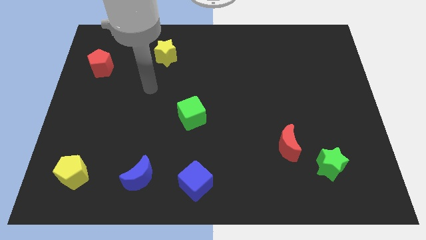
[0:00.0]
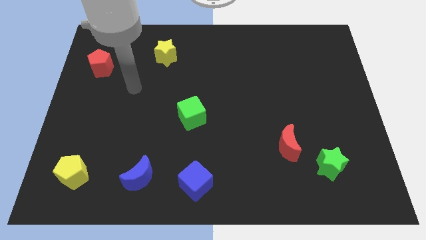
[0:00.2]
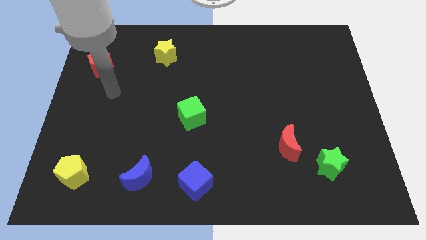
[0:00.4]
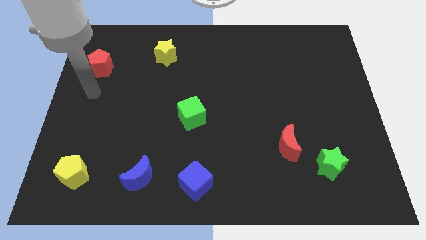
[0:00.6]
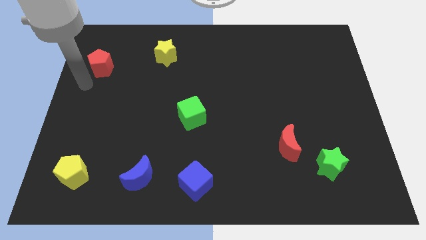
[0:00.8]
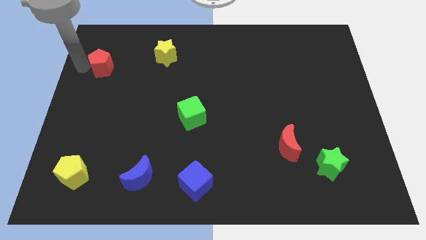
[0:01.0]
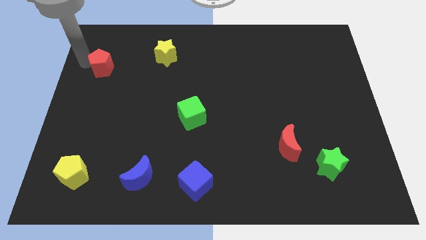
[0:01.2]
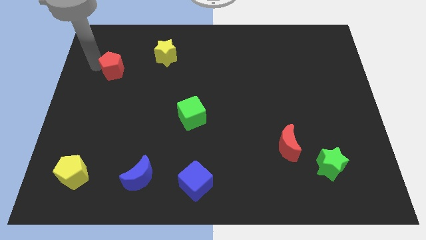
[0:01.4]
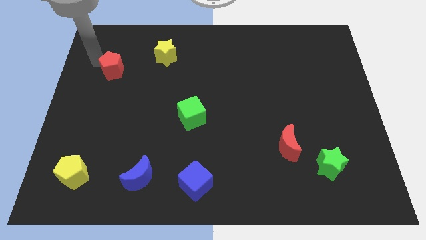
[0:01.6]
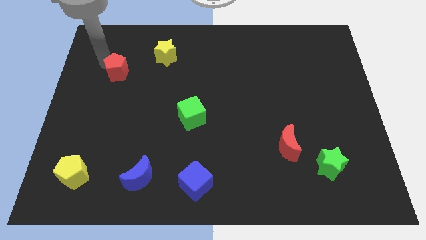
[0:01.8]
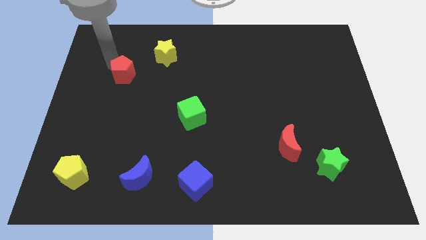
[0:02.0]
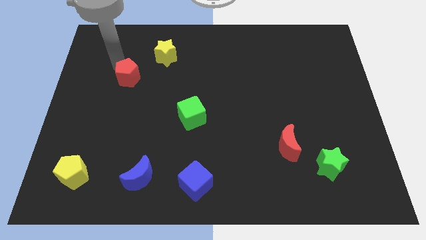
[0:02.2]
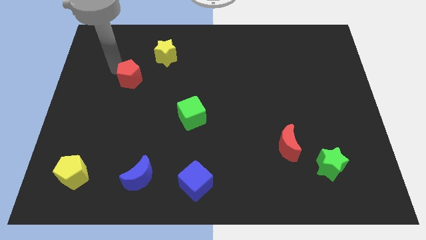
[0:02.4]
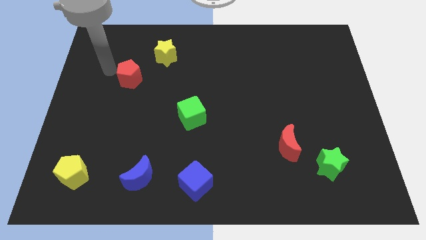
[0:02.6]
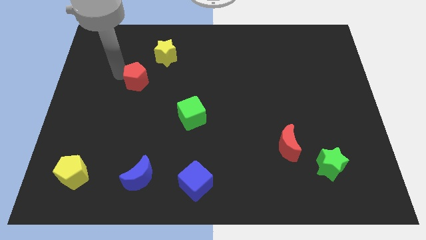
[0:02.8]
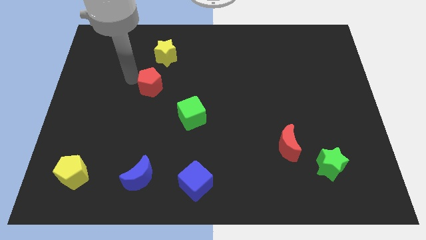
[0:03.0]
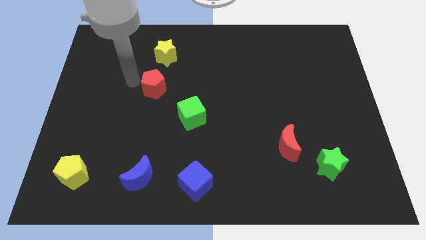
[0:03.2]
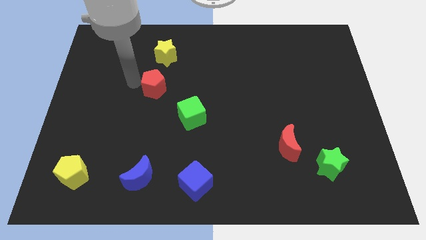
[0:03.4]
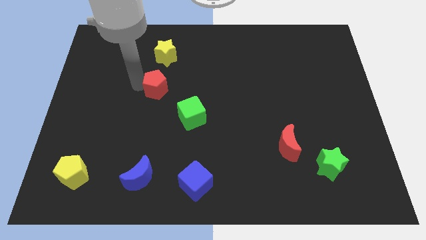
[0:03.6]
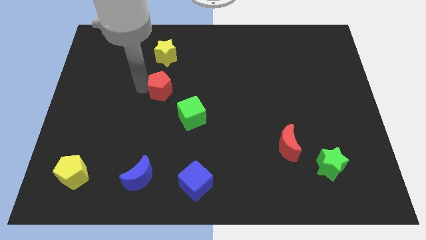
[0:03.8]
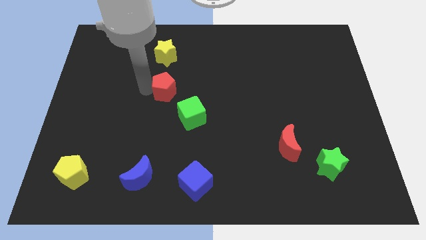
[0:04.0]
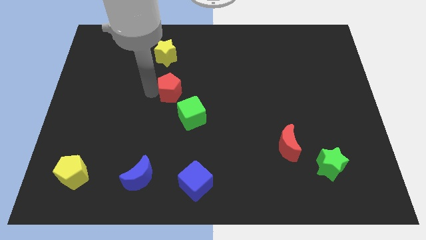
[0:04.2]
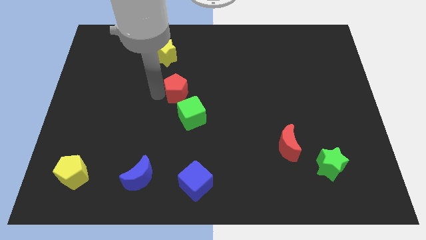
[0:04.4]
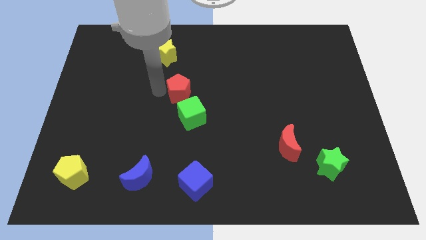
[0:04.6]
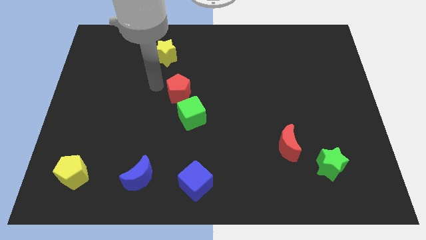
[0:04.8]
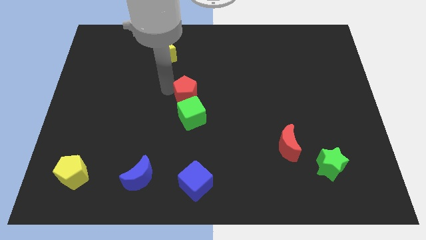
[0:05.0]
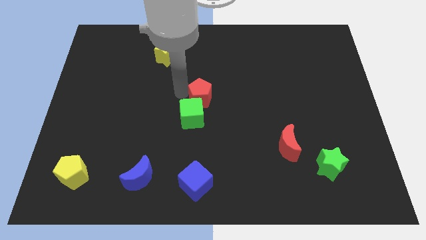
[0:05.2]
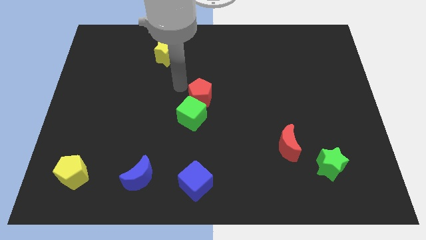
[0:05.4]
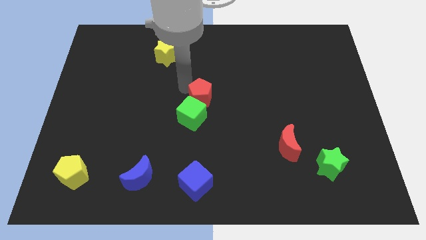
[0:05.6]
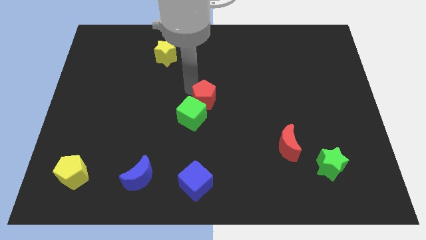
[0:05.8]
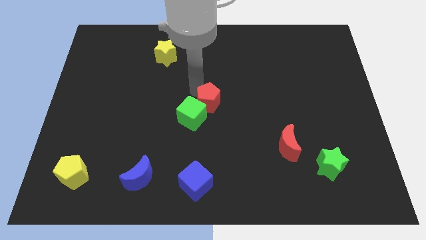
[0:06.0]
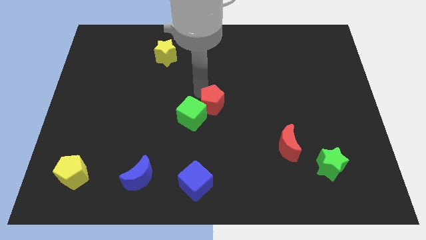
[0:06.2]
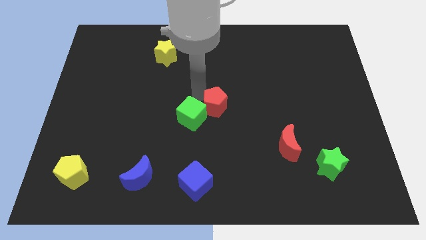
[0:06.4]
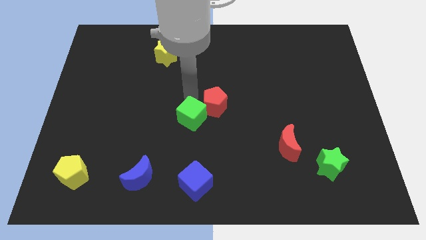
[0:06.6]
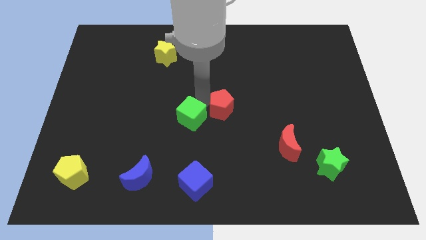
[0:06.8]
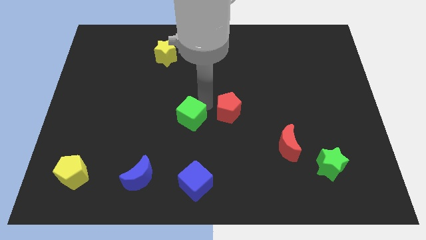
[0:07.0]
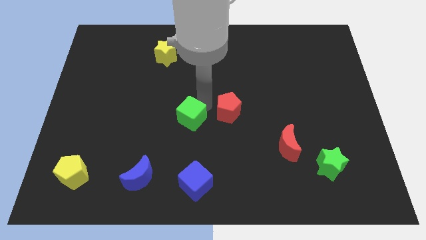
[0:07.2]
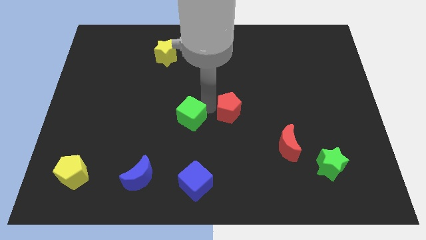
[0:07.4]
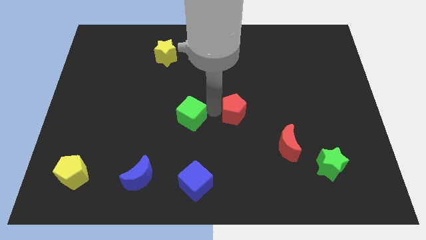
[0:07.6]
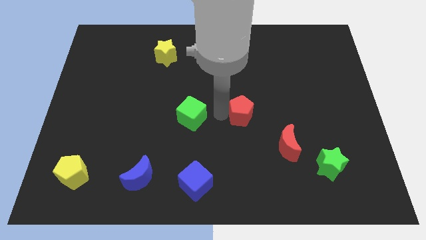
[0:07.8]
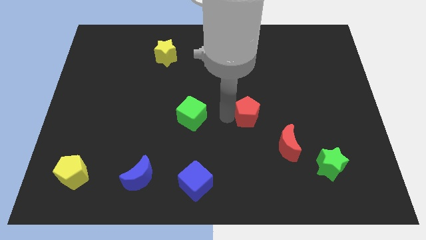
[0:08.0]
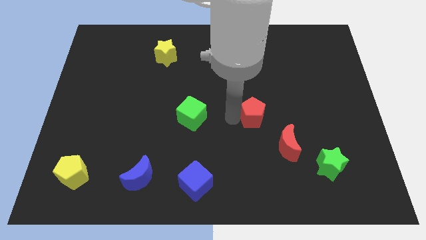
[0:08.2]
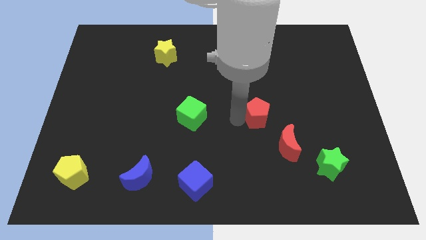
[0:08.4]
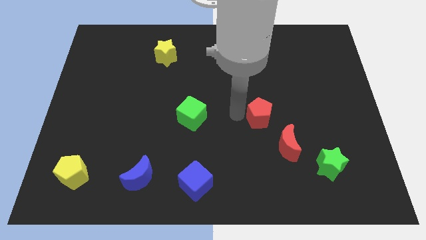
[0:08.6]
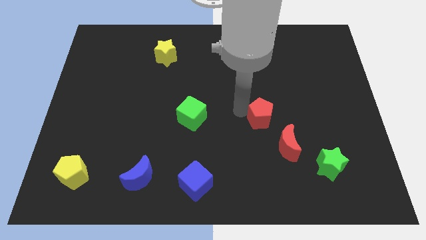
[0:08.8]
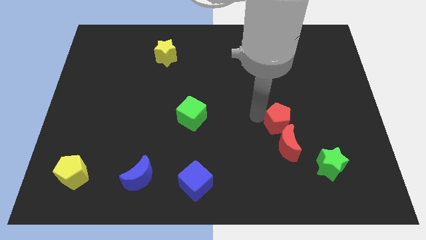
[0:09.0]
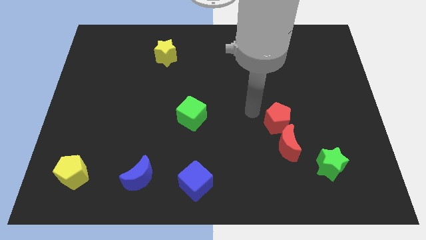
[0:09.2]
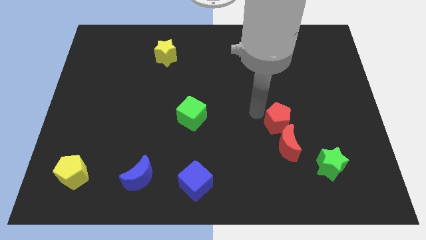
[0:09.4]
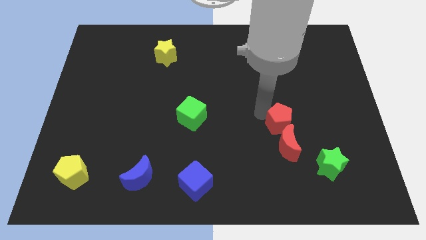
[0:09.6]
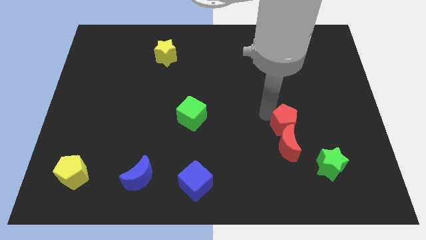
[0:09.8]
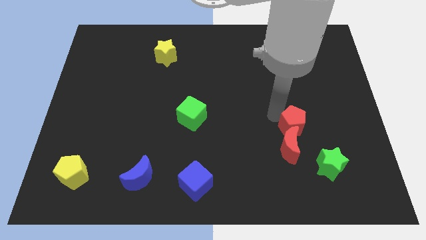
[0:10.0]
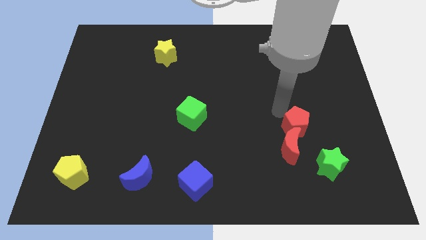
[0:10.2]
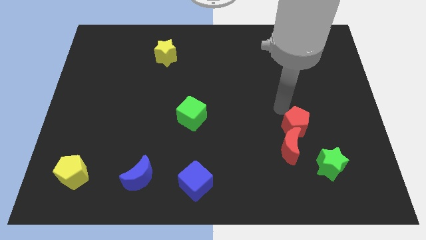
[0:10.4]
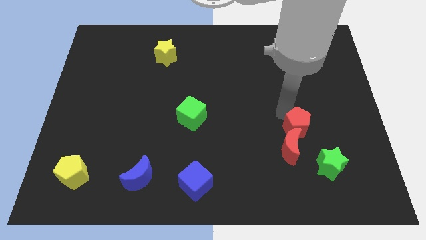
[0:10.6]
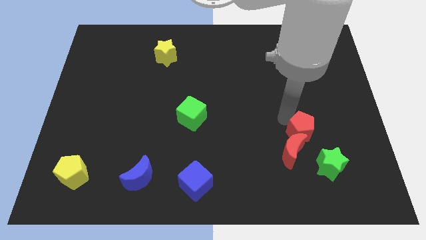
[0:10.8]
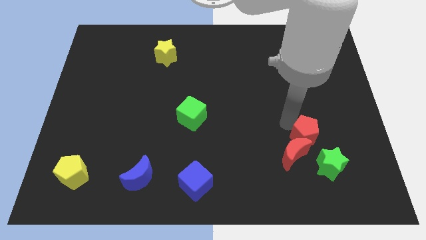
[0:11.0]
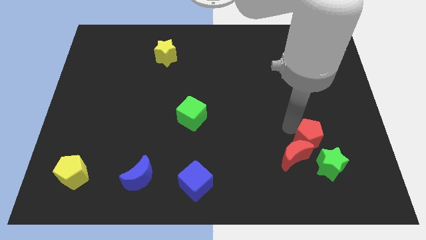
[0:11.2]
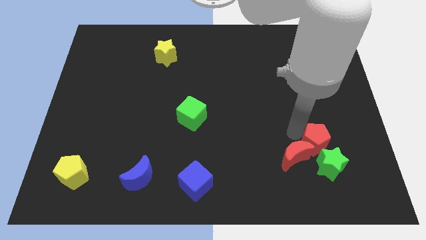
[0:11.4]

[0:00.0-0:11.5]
push the red pentagon next to the green star

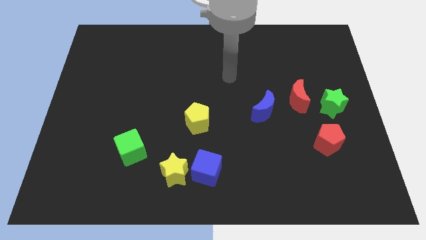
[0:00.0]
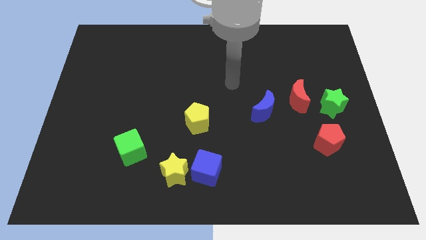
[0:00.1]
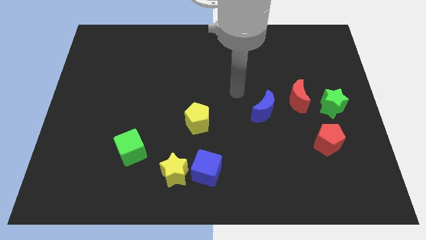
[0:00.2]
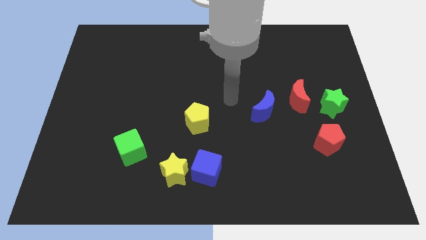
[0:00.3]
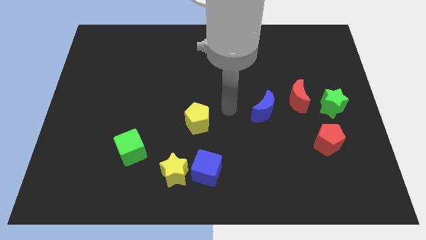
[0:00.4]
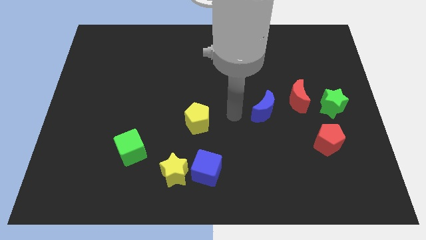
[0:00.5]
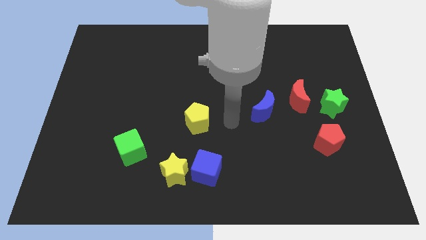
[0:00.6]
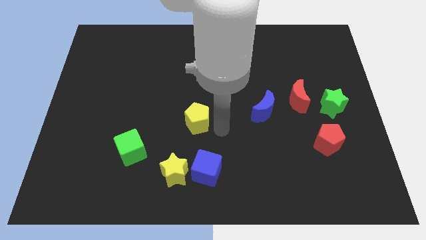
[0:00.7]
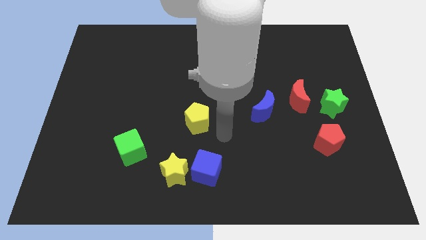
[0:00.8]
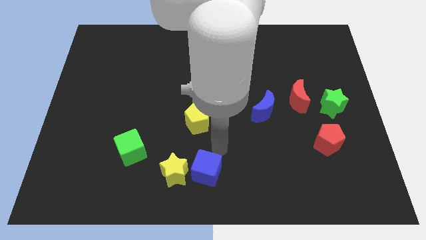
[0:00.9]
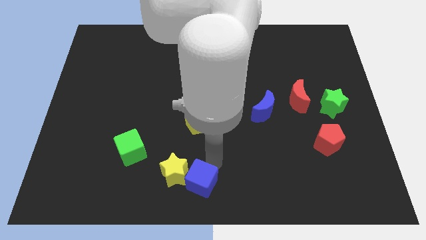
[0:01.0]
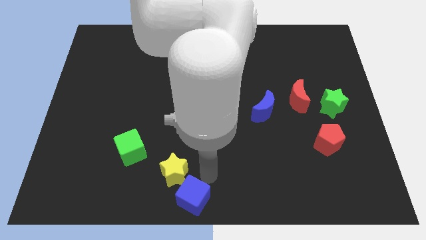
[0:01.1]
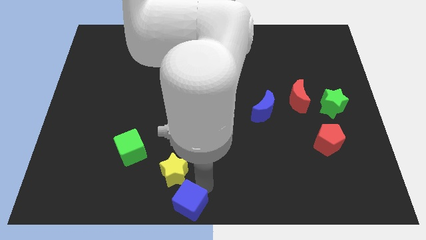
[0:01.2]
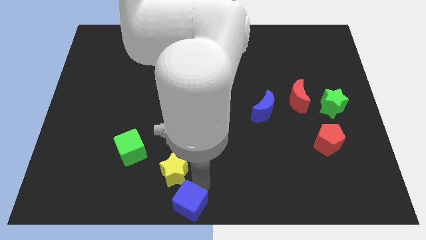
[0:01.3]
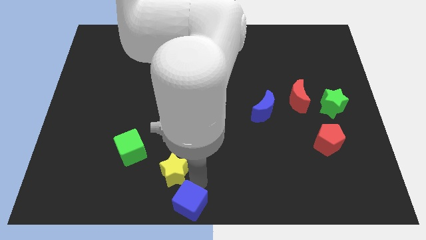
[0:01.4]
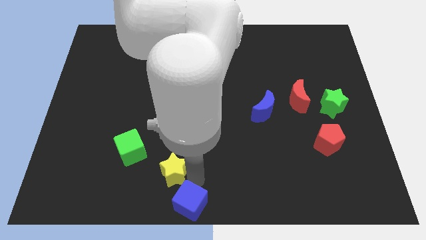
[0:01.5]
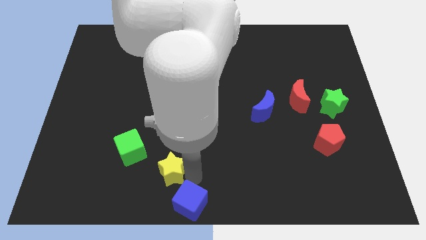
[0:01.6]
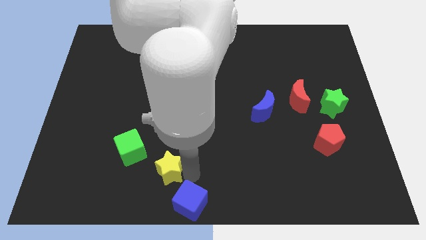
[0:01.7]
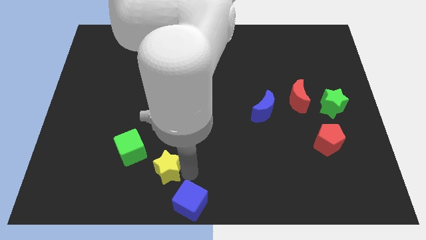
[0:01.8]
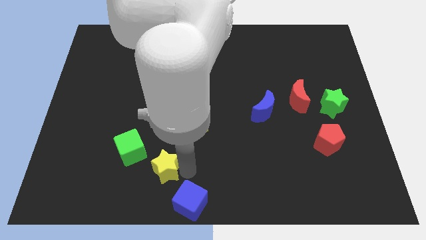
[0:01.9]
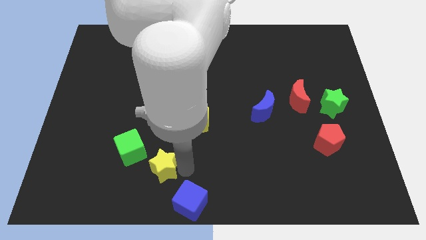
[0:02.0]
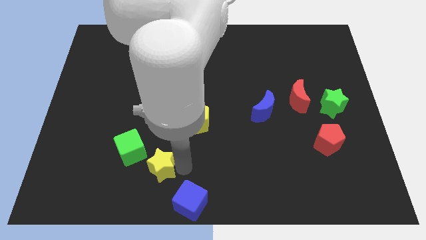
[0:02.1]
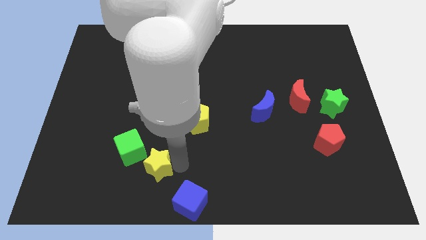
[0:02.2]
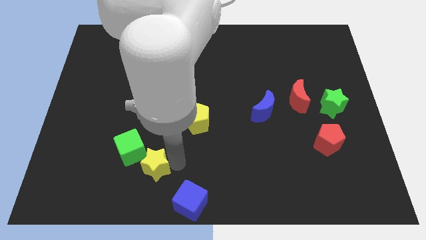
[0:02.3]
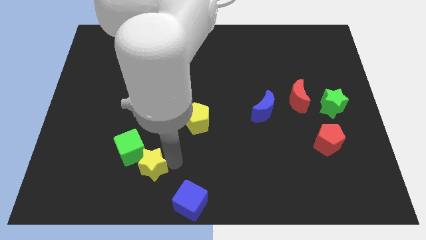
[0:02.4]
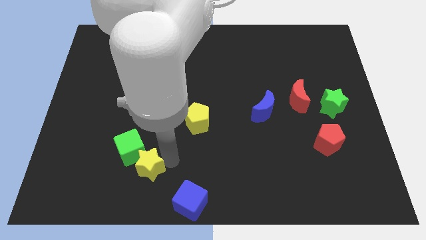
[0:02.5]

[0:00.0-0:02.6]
put the yellow star to the green cube
